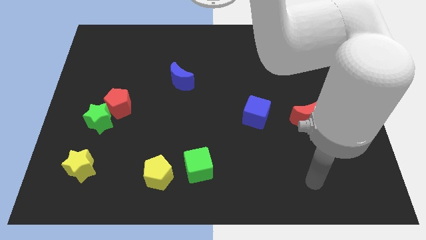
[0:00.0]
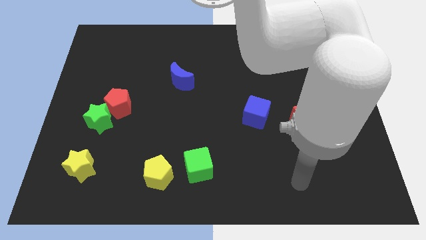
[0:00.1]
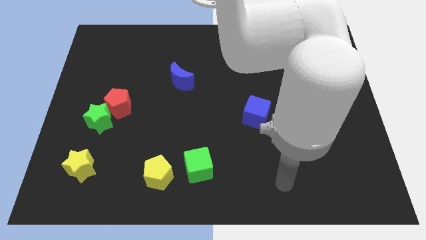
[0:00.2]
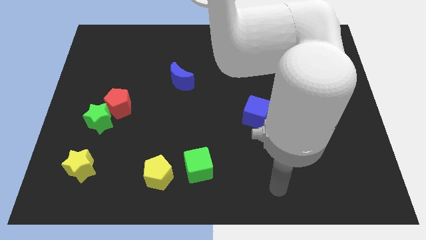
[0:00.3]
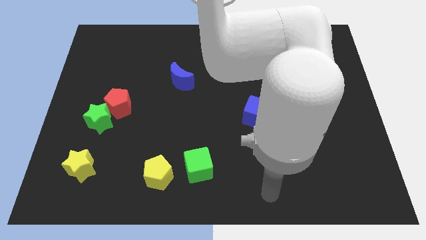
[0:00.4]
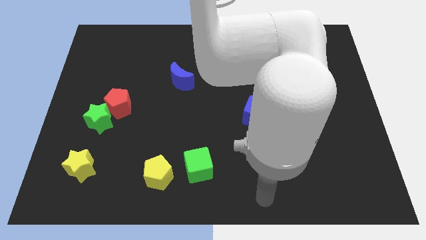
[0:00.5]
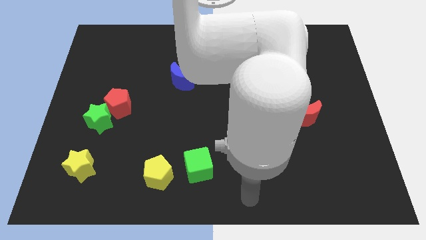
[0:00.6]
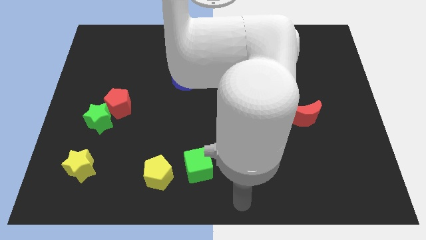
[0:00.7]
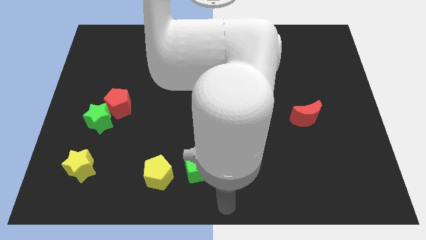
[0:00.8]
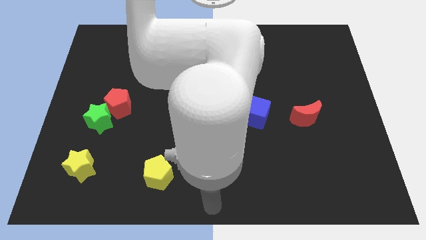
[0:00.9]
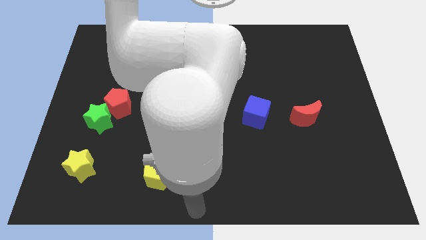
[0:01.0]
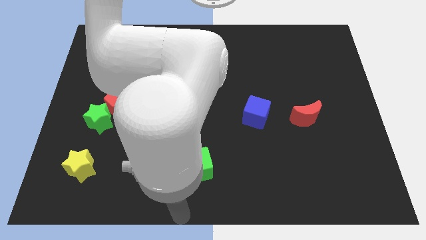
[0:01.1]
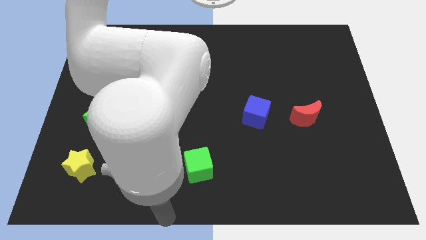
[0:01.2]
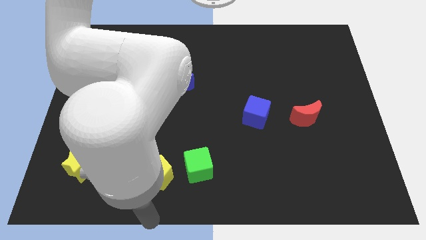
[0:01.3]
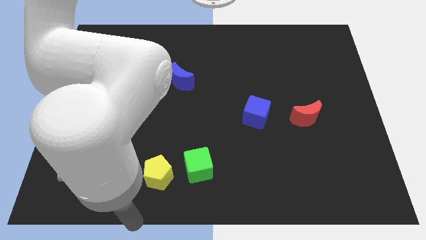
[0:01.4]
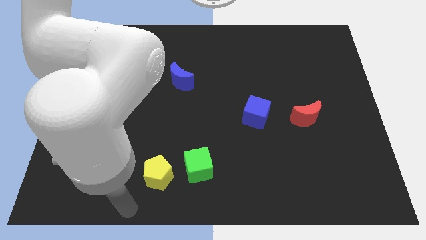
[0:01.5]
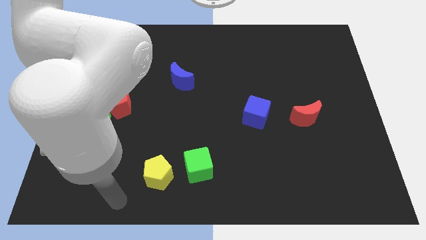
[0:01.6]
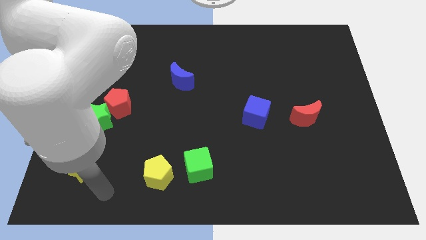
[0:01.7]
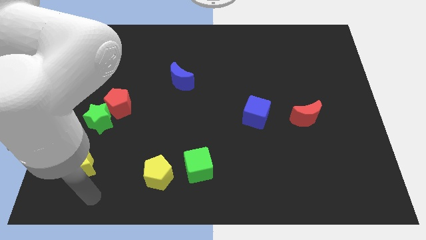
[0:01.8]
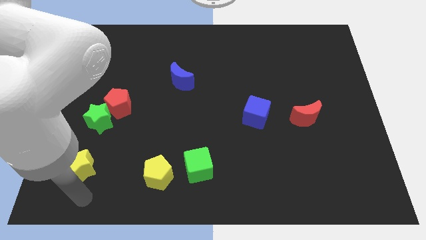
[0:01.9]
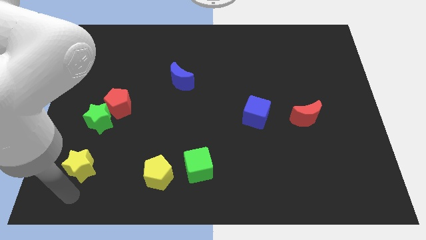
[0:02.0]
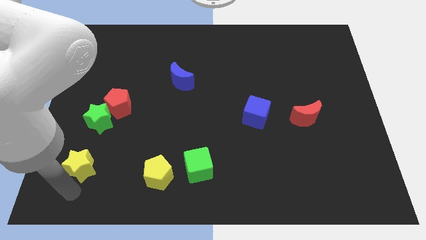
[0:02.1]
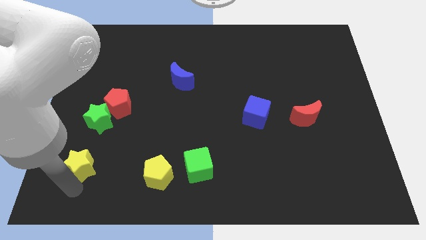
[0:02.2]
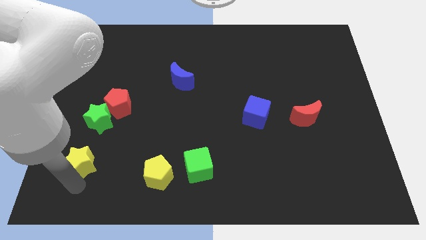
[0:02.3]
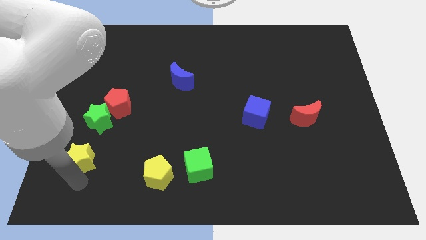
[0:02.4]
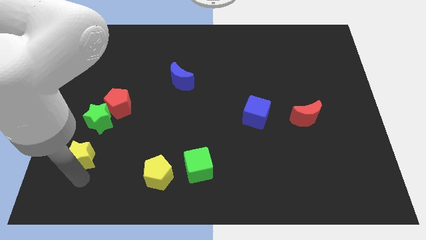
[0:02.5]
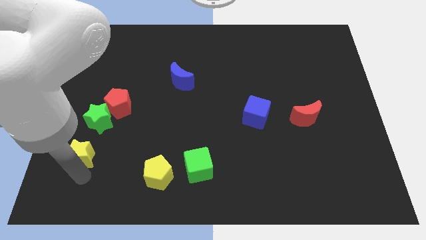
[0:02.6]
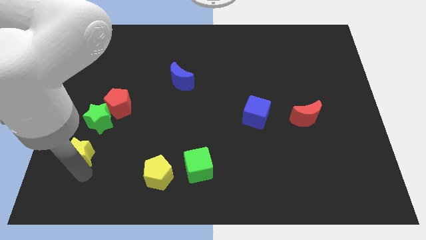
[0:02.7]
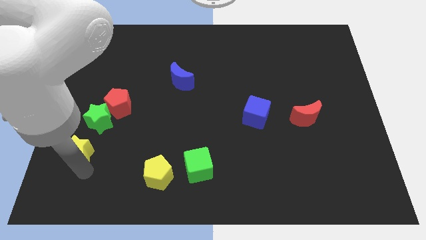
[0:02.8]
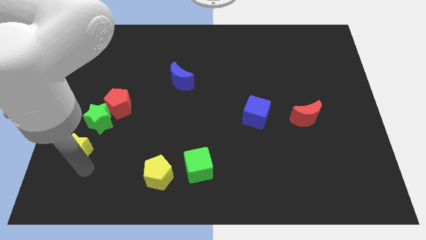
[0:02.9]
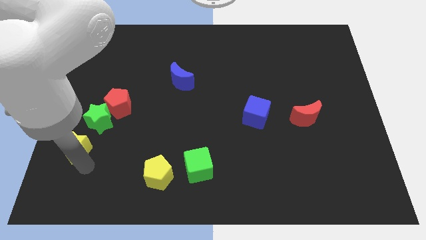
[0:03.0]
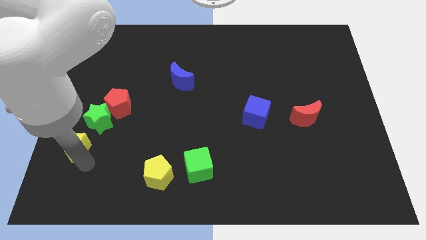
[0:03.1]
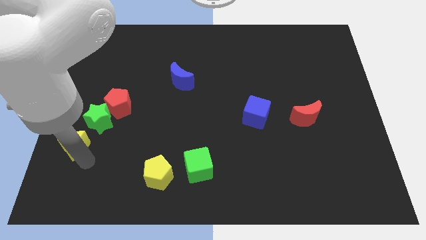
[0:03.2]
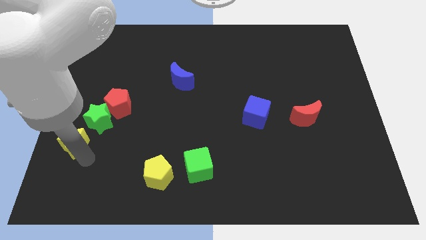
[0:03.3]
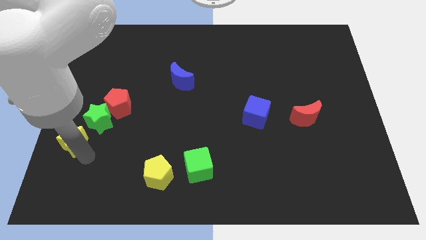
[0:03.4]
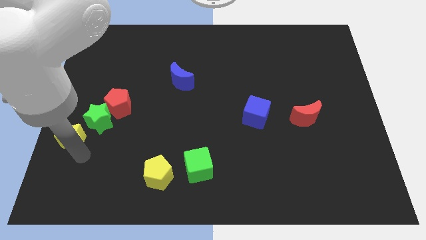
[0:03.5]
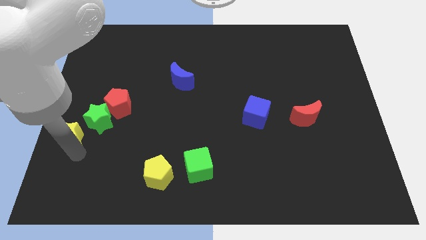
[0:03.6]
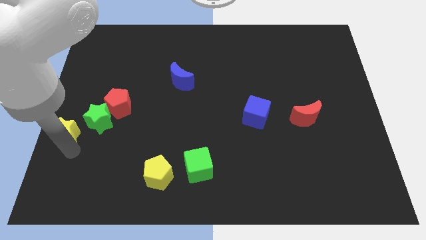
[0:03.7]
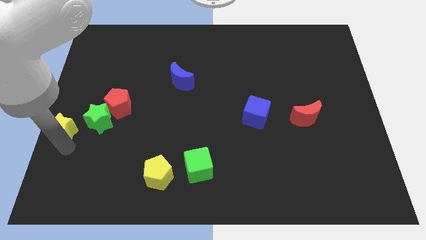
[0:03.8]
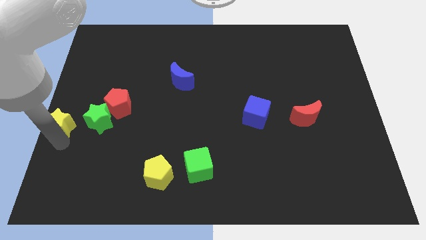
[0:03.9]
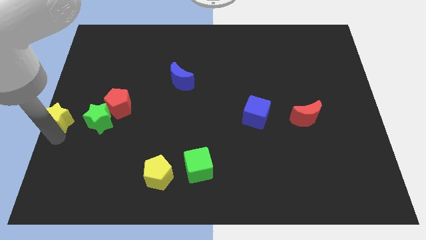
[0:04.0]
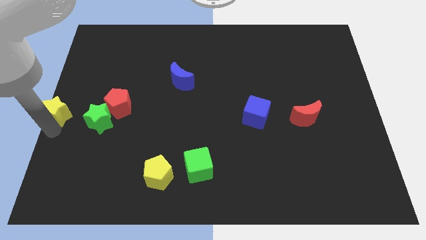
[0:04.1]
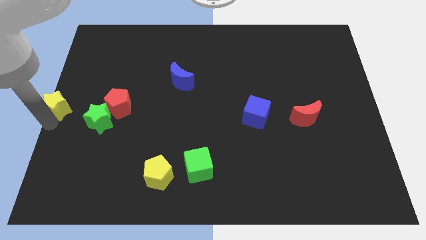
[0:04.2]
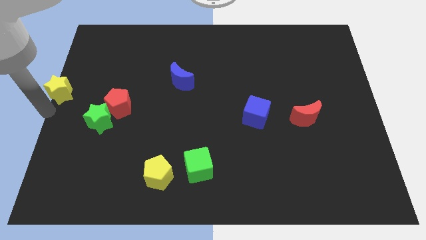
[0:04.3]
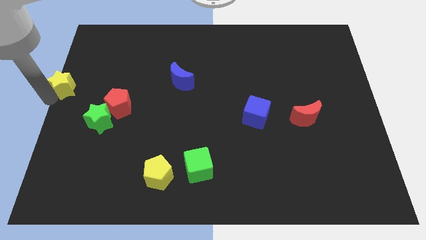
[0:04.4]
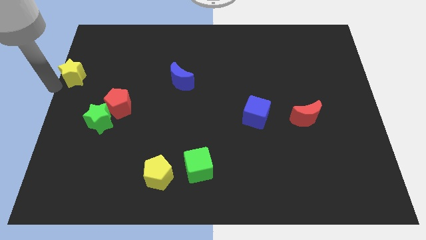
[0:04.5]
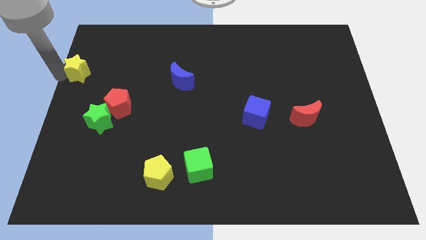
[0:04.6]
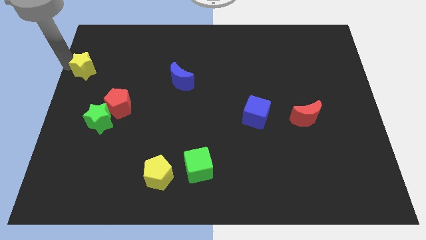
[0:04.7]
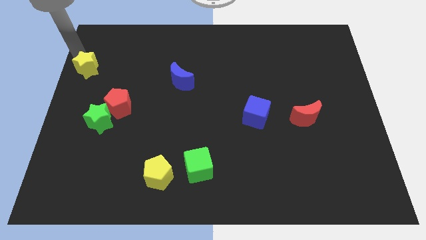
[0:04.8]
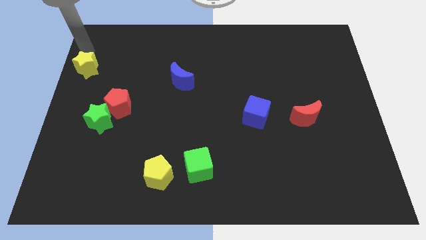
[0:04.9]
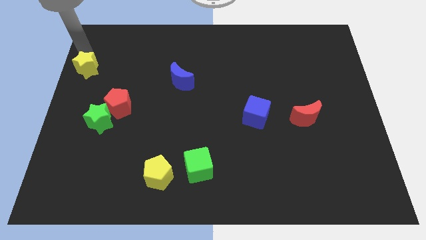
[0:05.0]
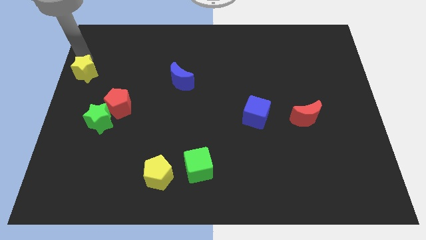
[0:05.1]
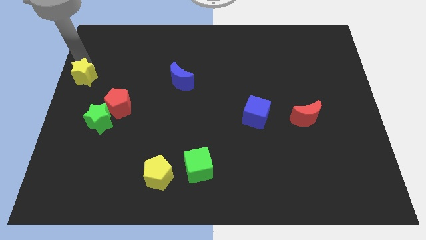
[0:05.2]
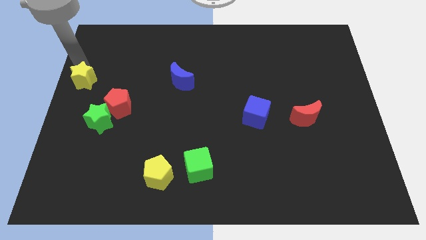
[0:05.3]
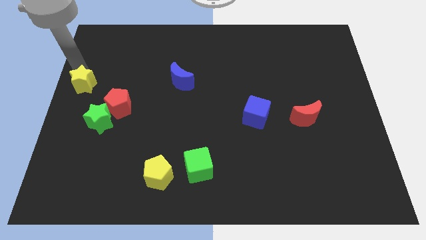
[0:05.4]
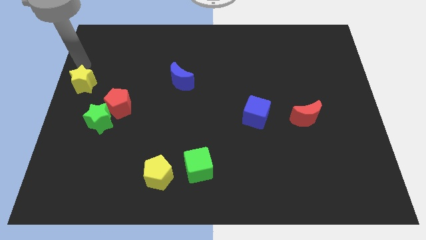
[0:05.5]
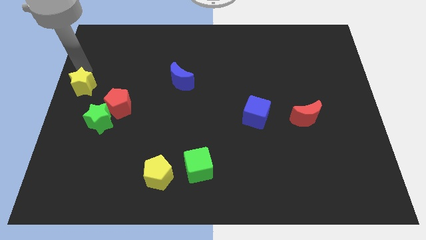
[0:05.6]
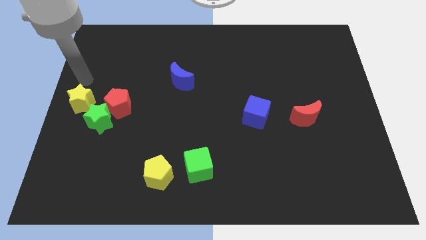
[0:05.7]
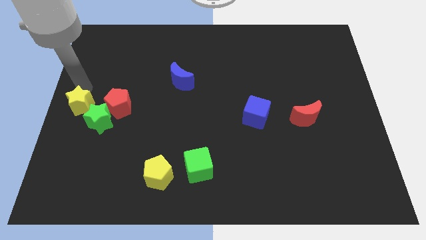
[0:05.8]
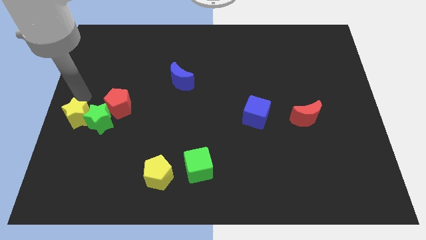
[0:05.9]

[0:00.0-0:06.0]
move the yellow star towards the green star
